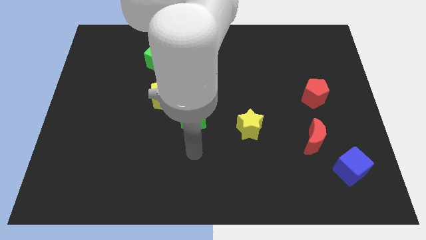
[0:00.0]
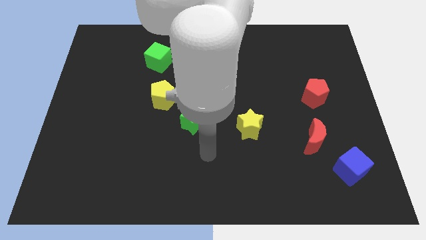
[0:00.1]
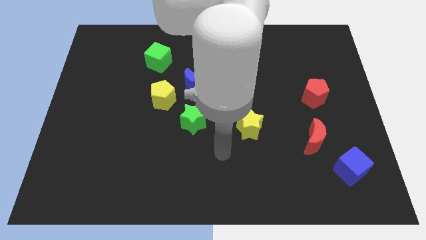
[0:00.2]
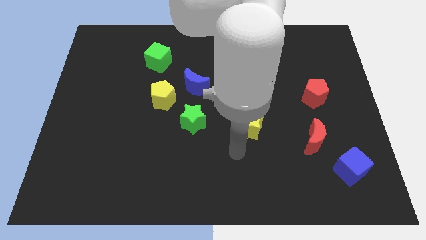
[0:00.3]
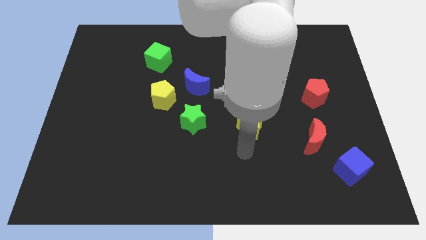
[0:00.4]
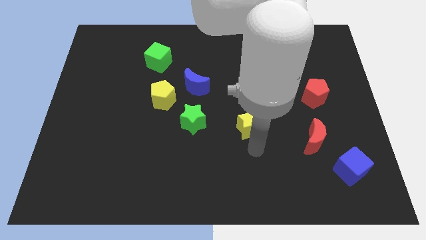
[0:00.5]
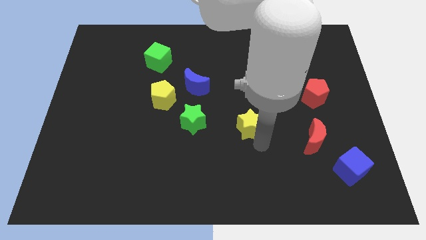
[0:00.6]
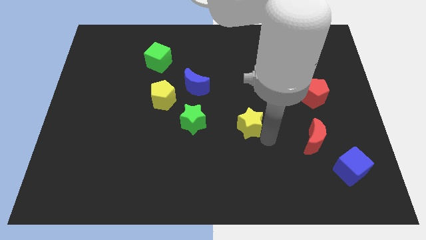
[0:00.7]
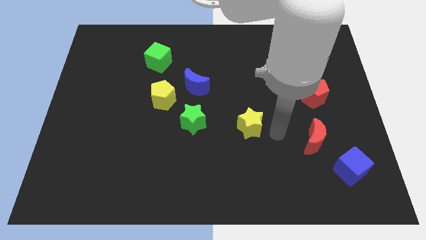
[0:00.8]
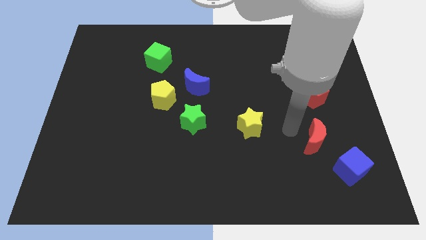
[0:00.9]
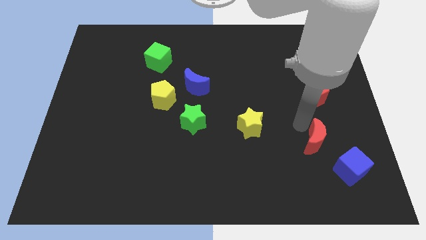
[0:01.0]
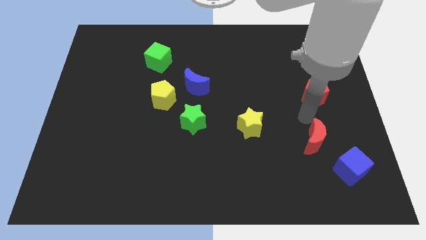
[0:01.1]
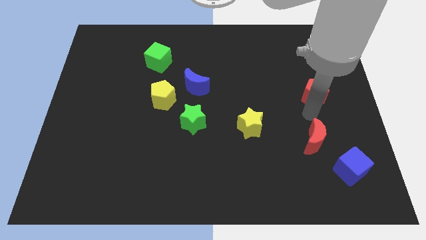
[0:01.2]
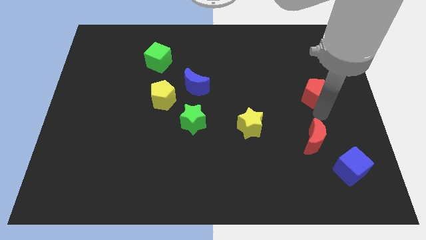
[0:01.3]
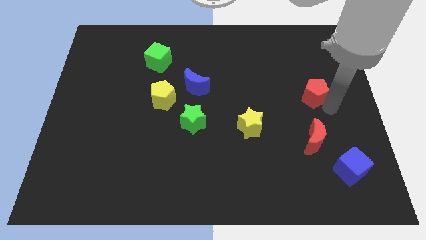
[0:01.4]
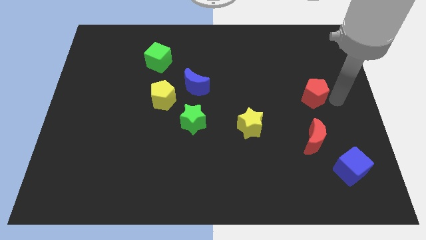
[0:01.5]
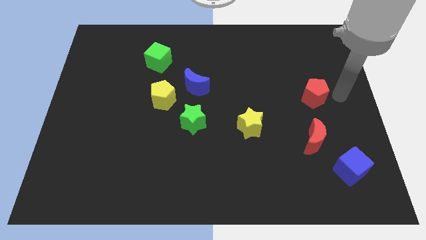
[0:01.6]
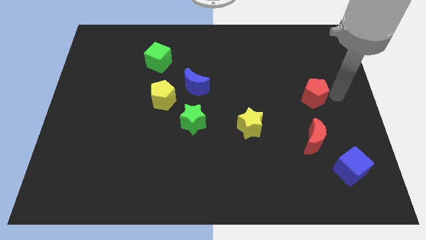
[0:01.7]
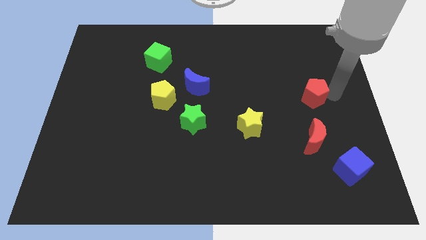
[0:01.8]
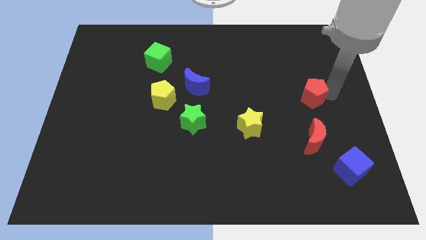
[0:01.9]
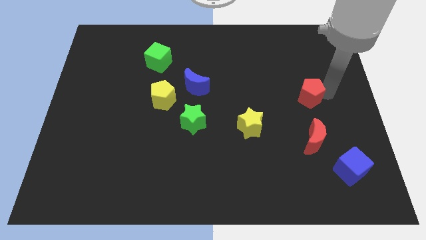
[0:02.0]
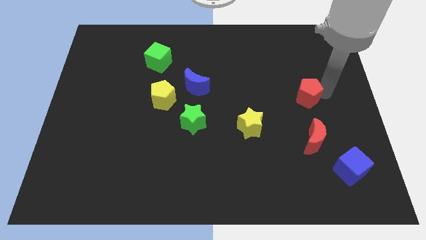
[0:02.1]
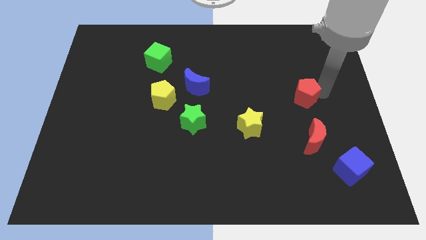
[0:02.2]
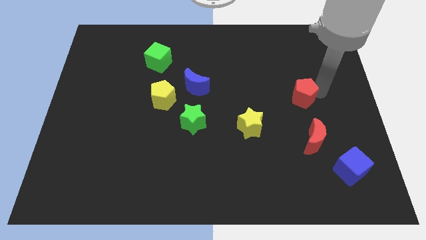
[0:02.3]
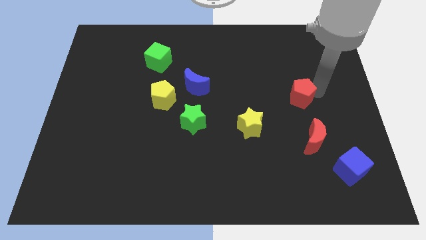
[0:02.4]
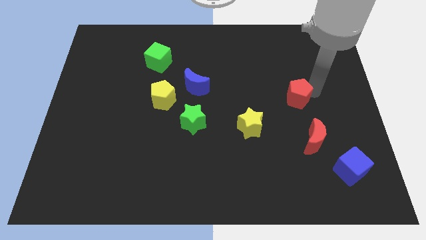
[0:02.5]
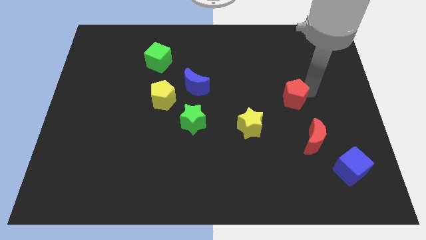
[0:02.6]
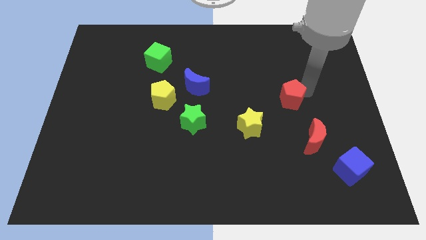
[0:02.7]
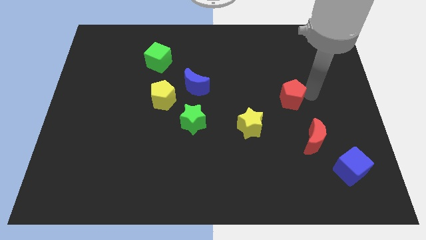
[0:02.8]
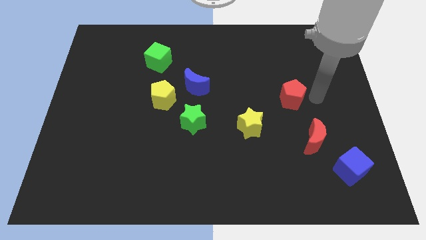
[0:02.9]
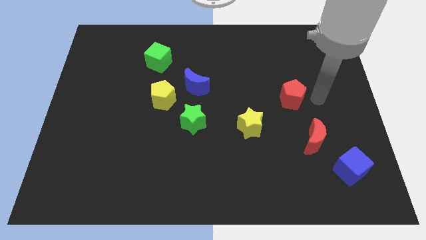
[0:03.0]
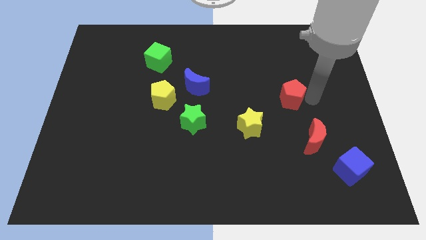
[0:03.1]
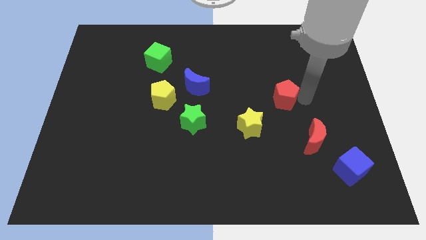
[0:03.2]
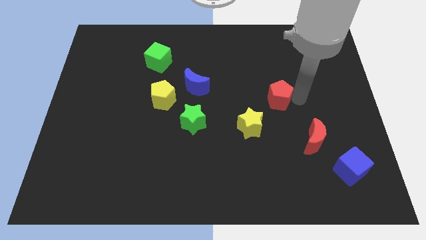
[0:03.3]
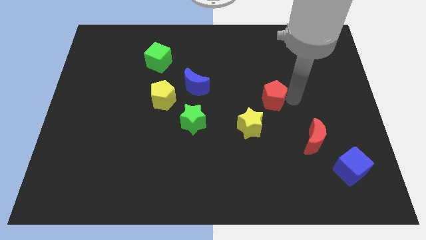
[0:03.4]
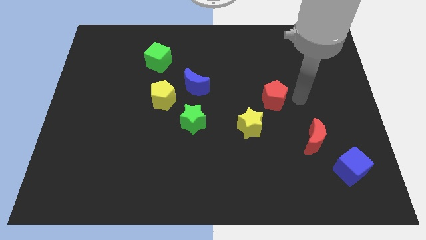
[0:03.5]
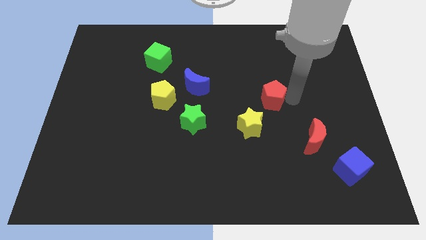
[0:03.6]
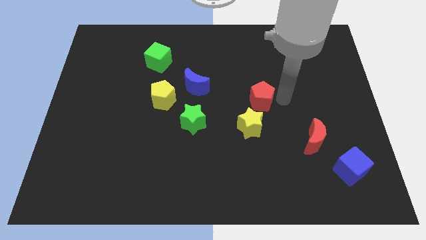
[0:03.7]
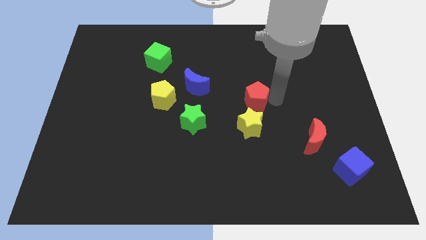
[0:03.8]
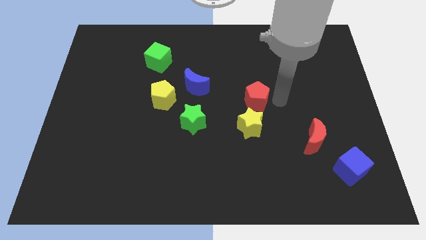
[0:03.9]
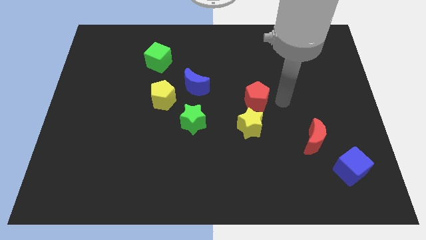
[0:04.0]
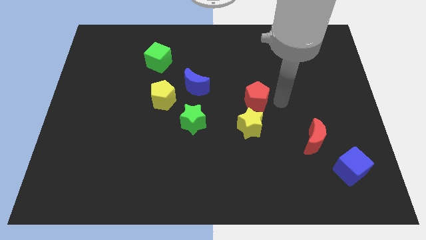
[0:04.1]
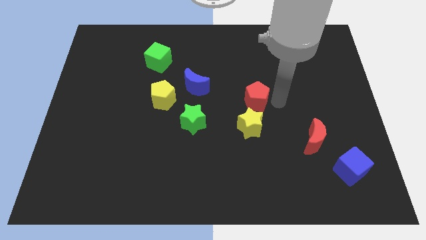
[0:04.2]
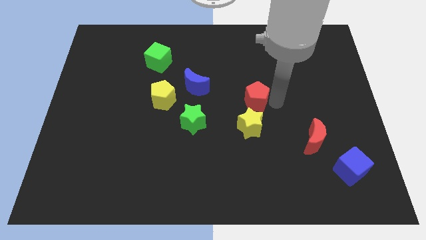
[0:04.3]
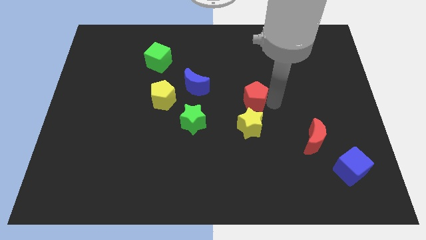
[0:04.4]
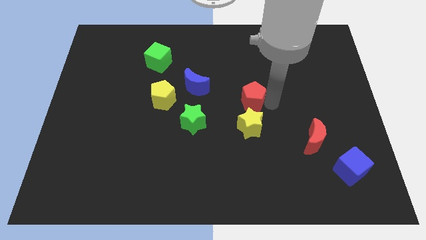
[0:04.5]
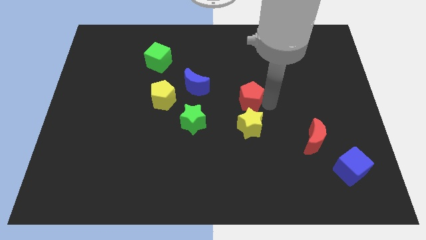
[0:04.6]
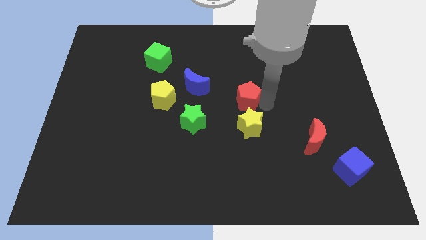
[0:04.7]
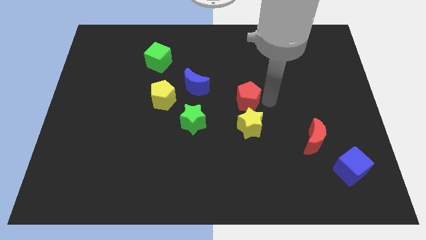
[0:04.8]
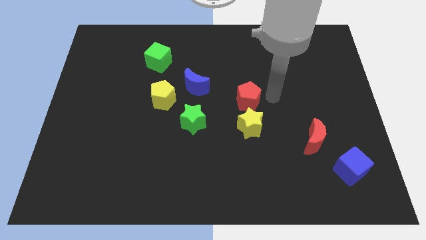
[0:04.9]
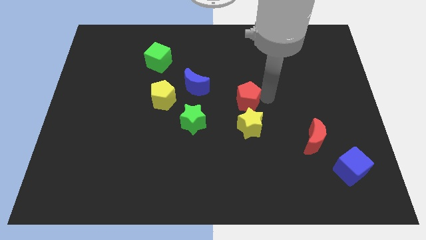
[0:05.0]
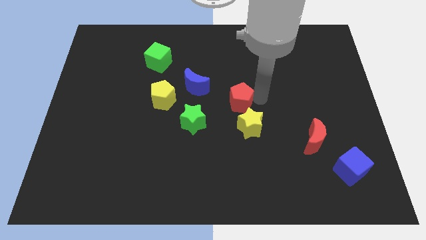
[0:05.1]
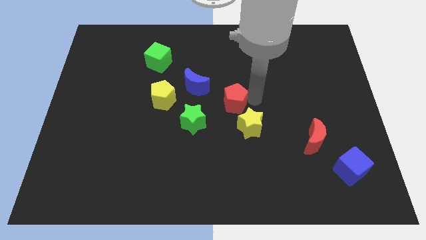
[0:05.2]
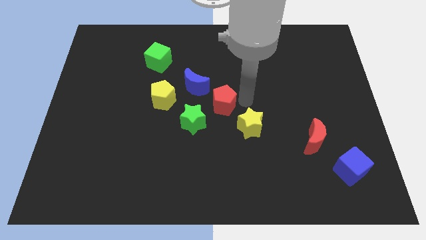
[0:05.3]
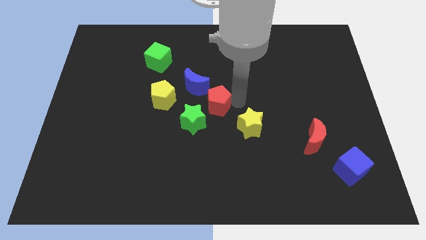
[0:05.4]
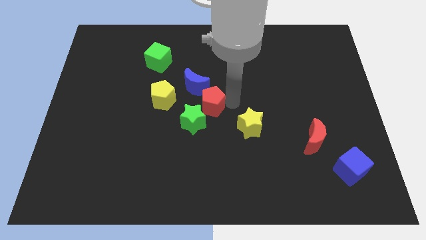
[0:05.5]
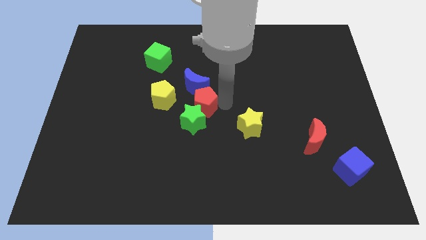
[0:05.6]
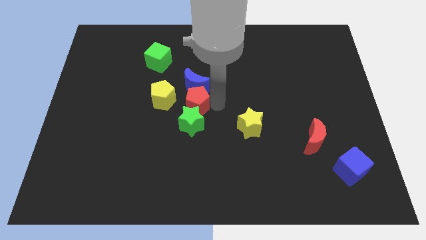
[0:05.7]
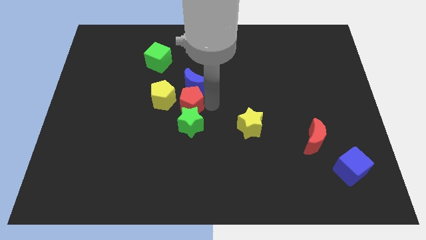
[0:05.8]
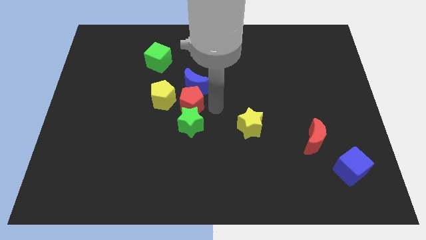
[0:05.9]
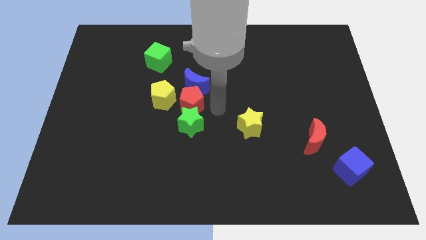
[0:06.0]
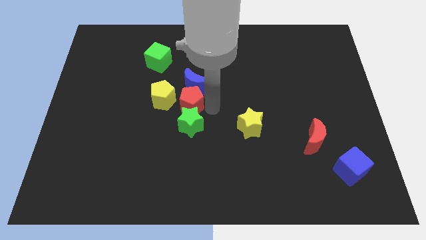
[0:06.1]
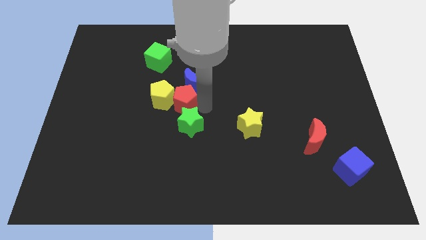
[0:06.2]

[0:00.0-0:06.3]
put the red pentagon next to the yellow pentagon
